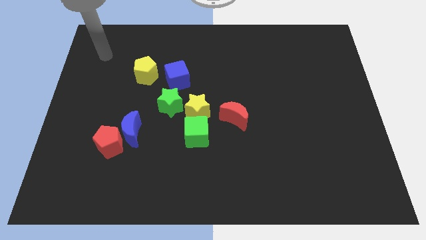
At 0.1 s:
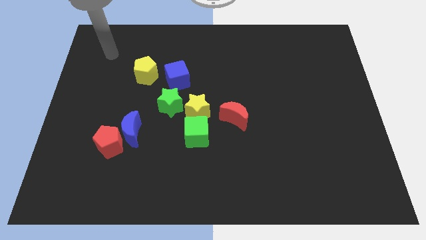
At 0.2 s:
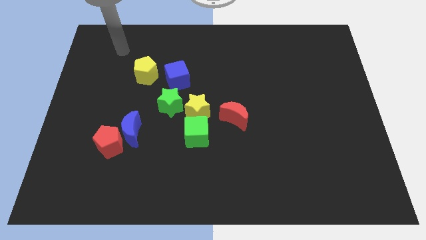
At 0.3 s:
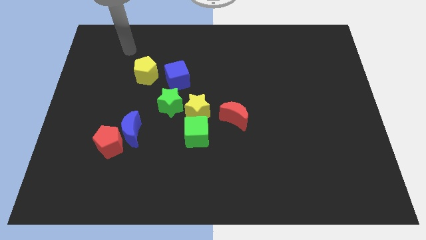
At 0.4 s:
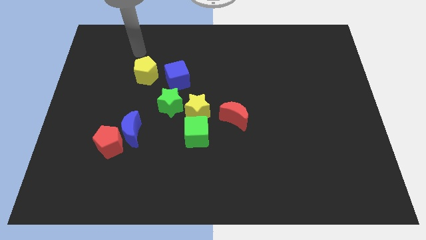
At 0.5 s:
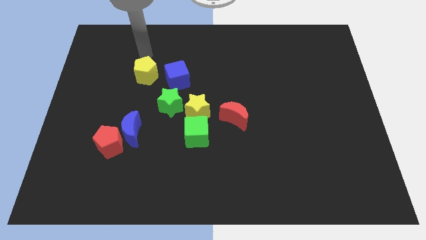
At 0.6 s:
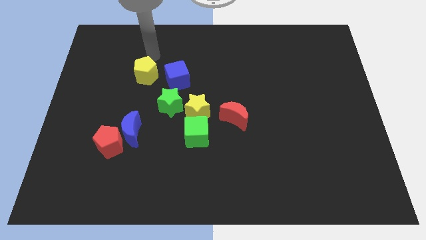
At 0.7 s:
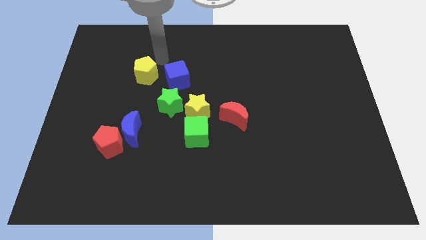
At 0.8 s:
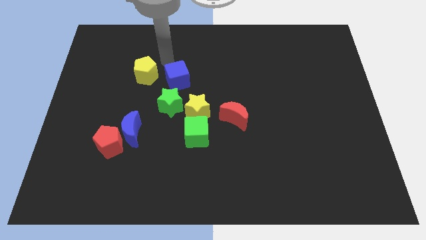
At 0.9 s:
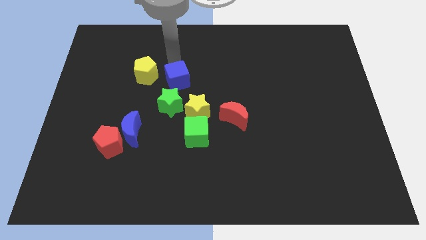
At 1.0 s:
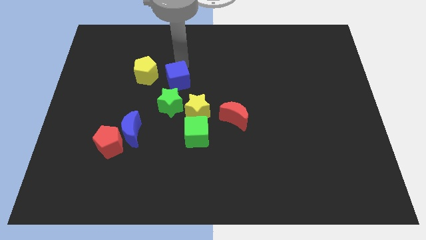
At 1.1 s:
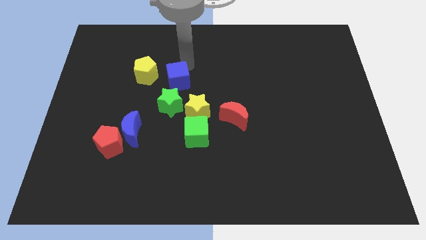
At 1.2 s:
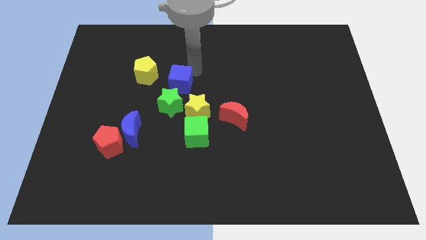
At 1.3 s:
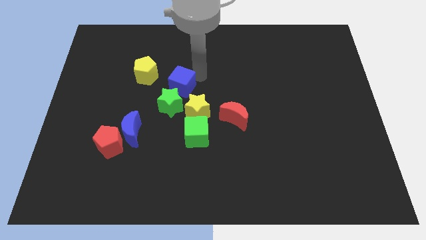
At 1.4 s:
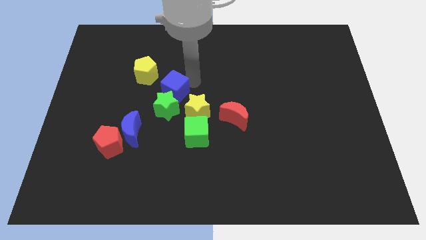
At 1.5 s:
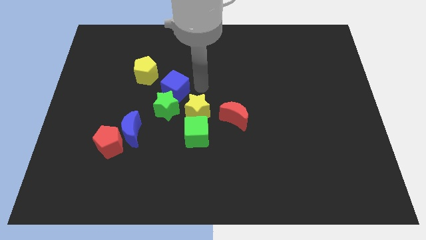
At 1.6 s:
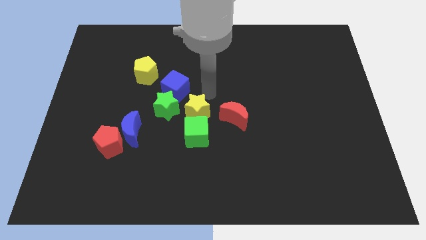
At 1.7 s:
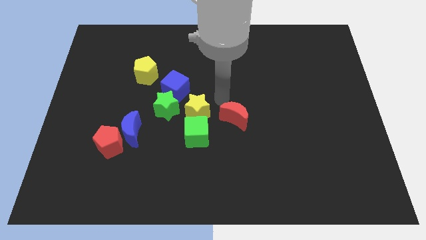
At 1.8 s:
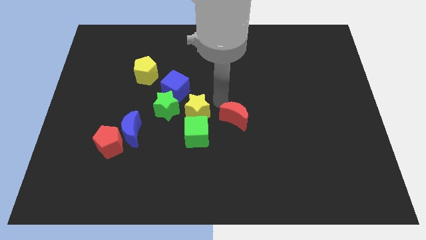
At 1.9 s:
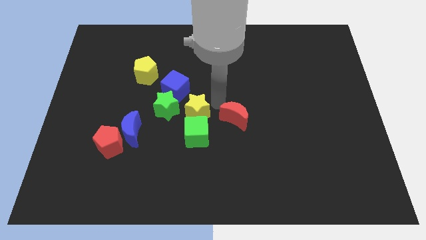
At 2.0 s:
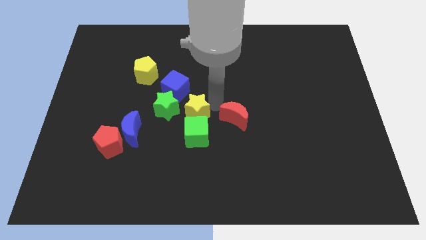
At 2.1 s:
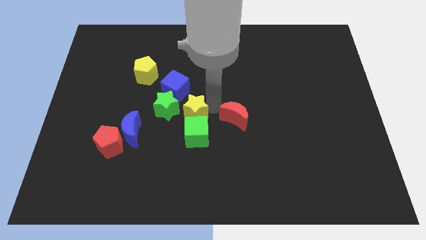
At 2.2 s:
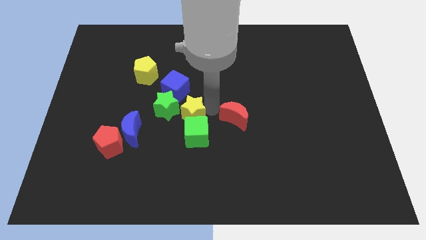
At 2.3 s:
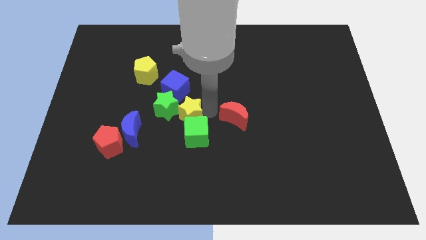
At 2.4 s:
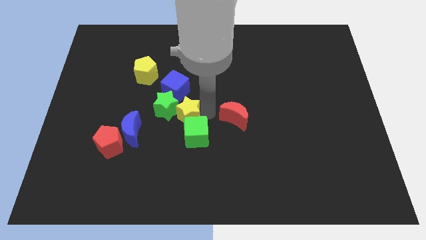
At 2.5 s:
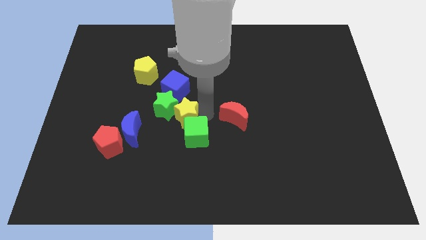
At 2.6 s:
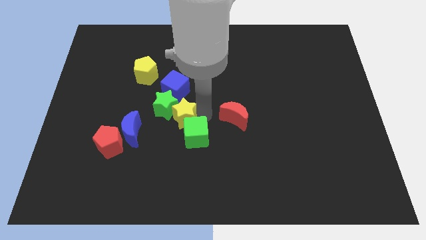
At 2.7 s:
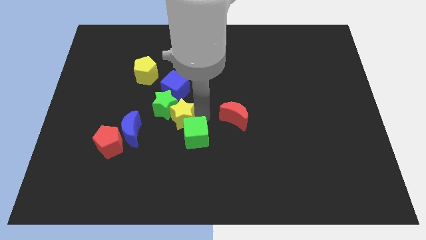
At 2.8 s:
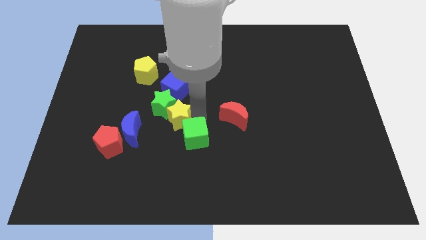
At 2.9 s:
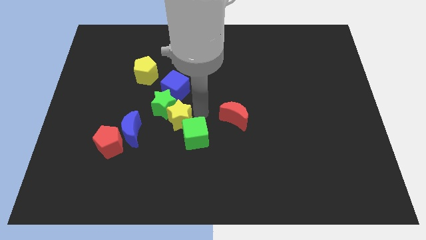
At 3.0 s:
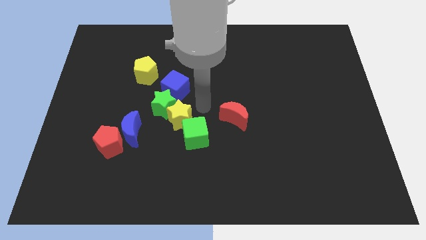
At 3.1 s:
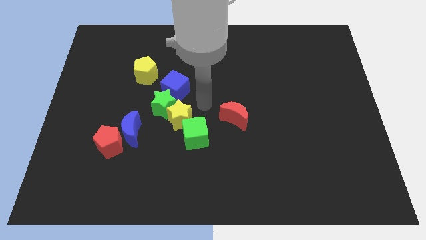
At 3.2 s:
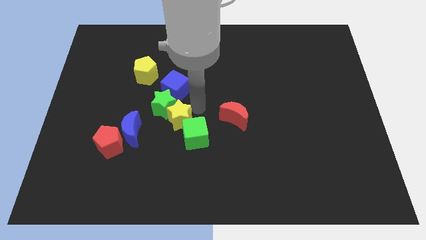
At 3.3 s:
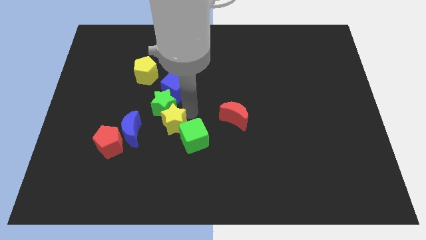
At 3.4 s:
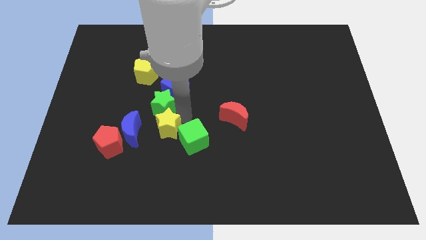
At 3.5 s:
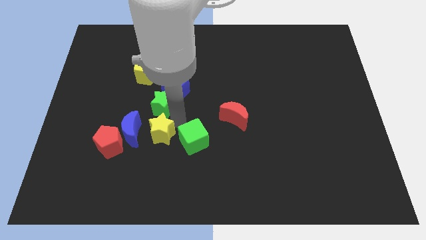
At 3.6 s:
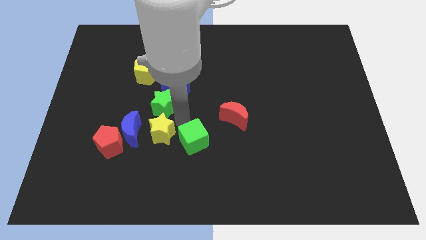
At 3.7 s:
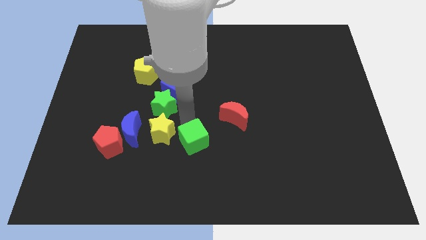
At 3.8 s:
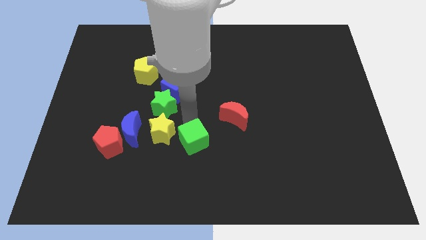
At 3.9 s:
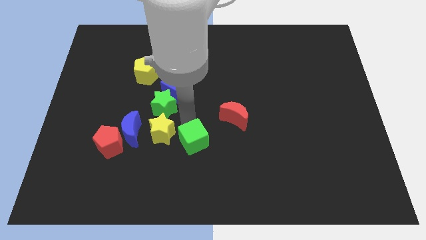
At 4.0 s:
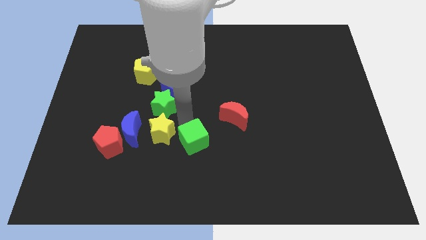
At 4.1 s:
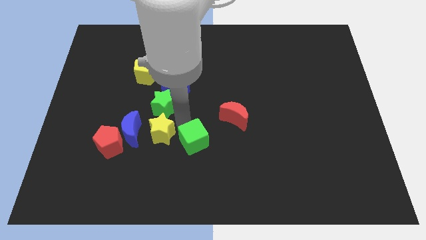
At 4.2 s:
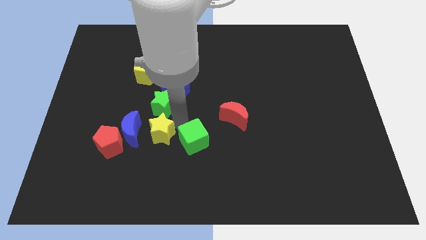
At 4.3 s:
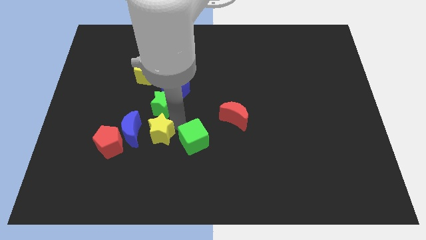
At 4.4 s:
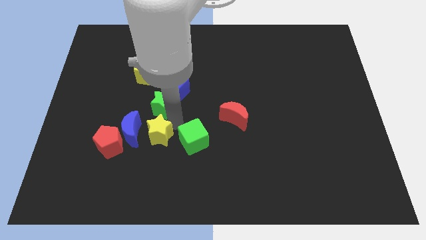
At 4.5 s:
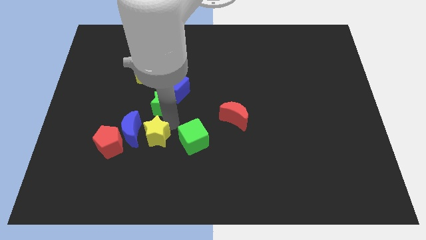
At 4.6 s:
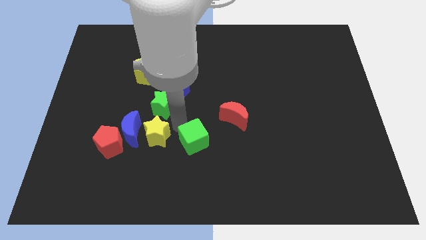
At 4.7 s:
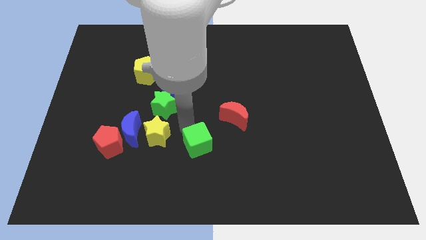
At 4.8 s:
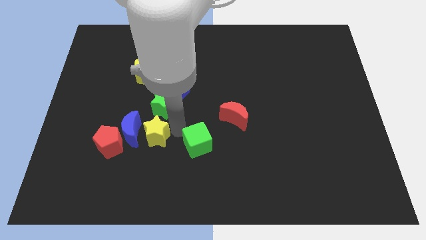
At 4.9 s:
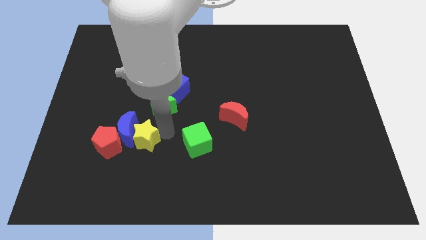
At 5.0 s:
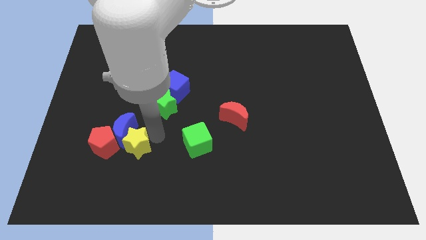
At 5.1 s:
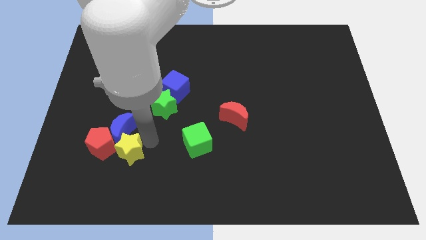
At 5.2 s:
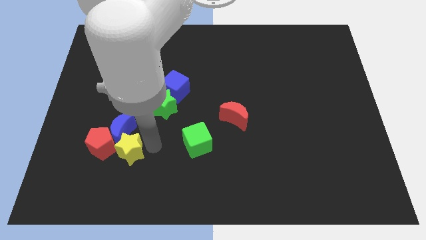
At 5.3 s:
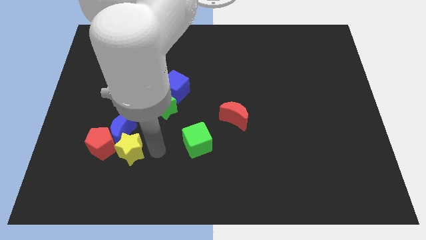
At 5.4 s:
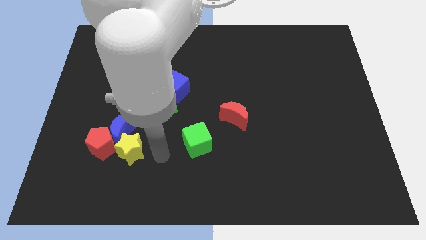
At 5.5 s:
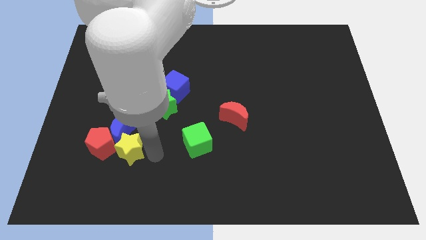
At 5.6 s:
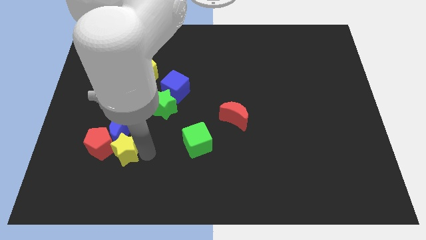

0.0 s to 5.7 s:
push the yellow star to the red pentagon

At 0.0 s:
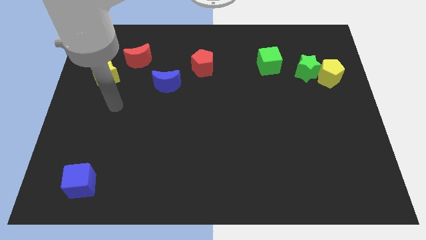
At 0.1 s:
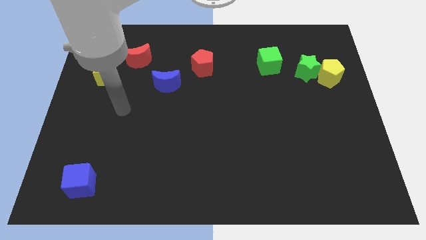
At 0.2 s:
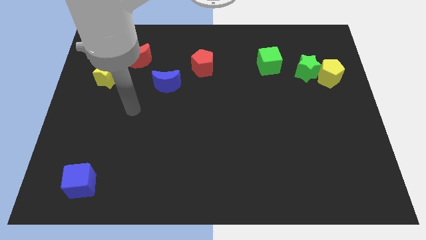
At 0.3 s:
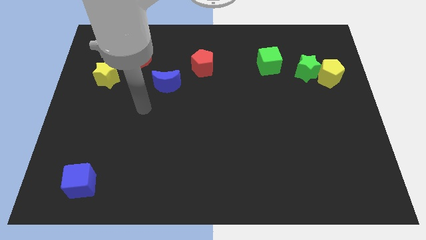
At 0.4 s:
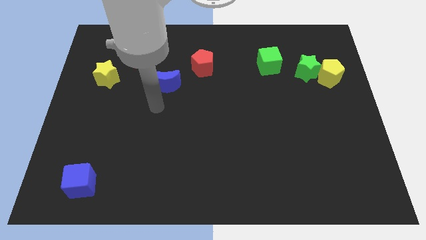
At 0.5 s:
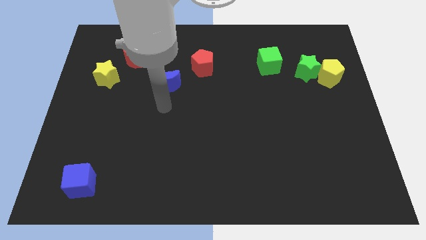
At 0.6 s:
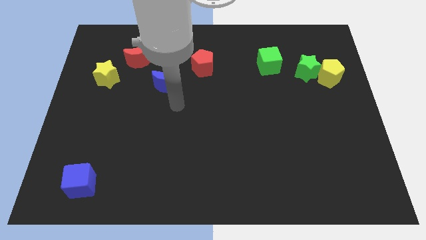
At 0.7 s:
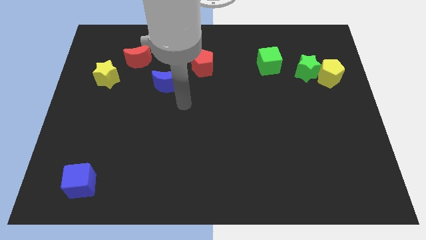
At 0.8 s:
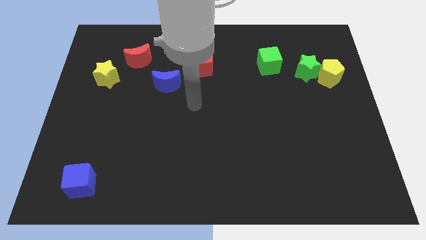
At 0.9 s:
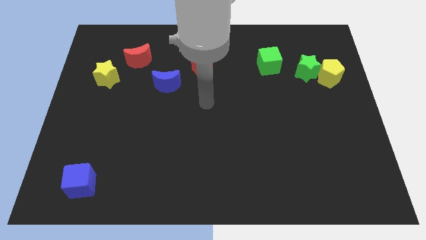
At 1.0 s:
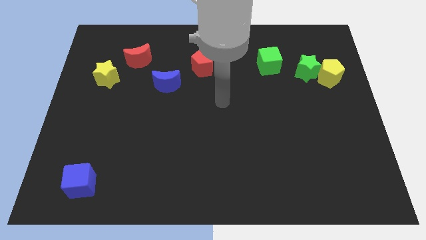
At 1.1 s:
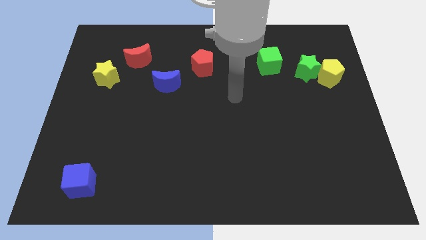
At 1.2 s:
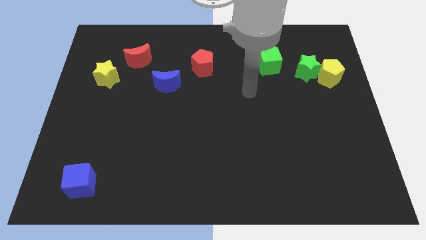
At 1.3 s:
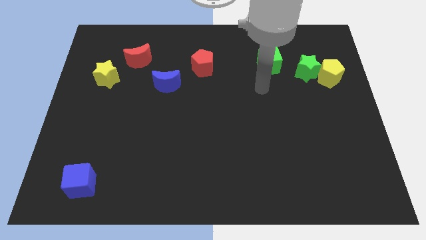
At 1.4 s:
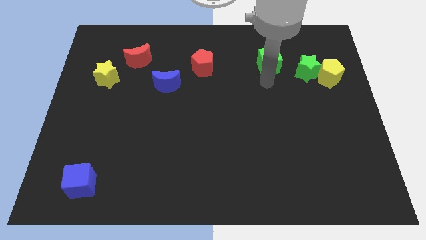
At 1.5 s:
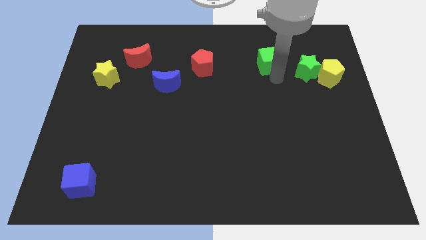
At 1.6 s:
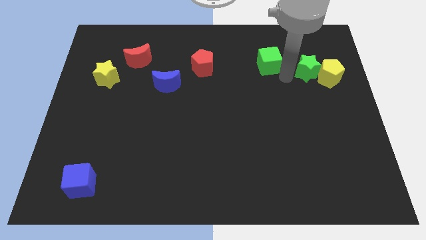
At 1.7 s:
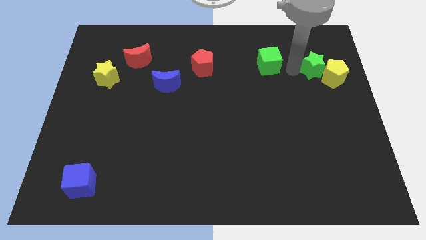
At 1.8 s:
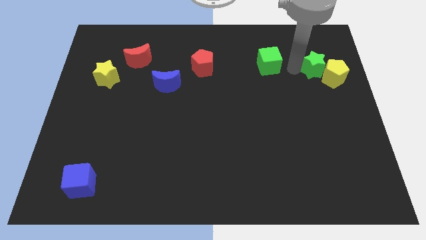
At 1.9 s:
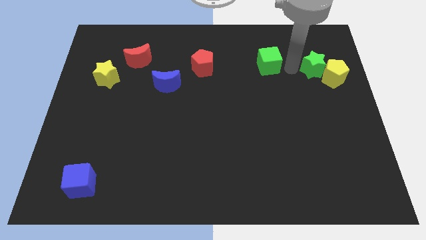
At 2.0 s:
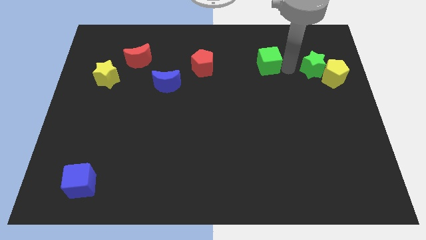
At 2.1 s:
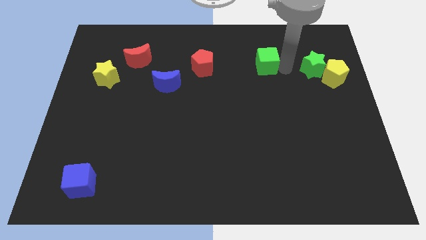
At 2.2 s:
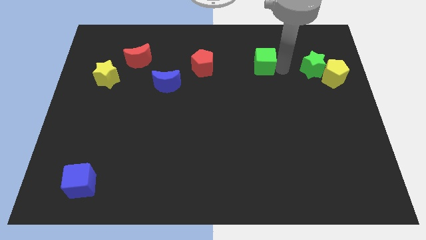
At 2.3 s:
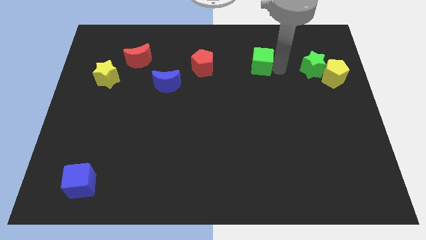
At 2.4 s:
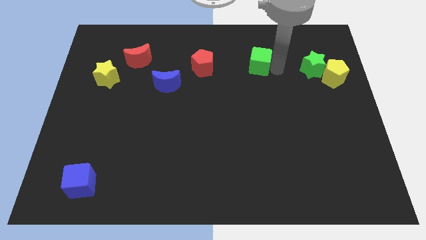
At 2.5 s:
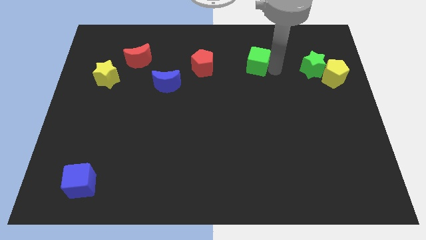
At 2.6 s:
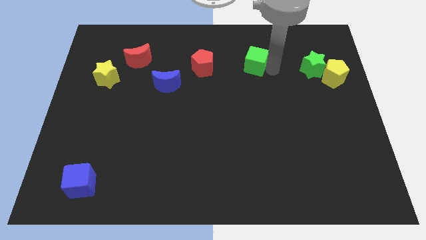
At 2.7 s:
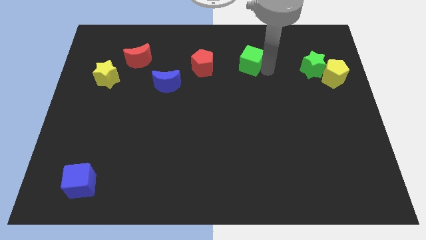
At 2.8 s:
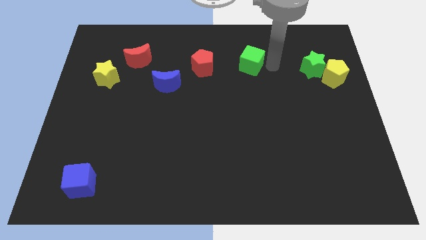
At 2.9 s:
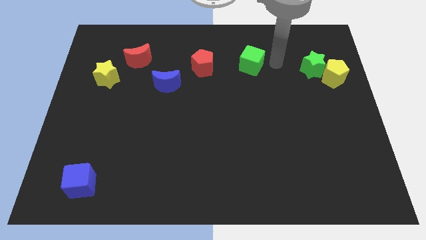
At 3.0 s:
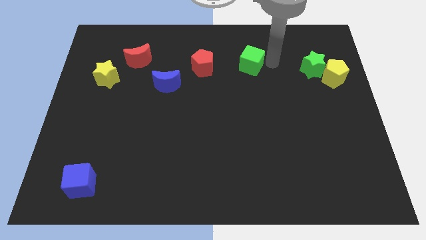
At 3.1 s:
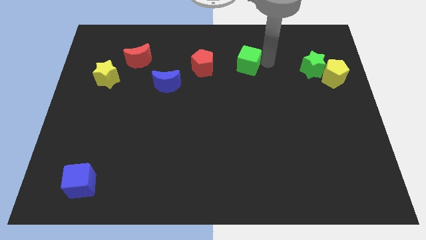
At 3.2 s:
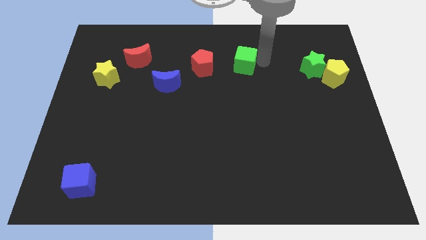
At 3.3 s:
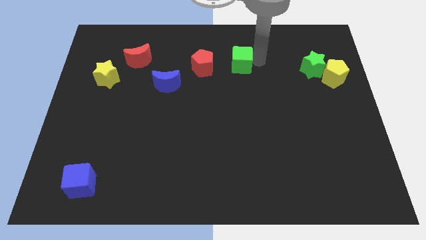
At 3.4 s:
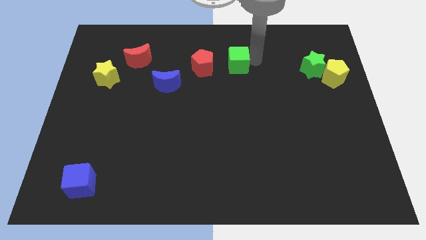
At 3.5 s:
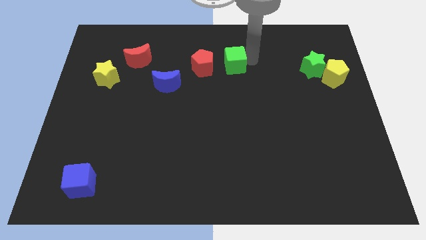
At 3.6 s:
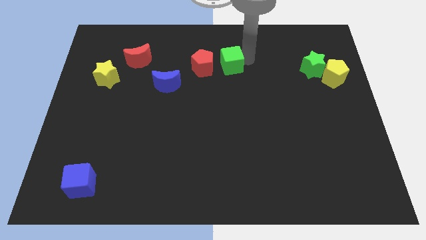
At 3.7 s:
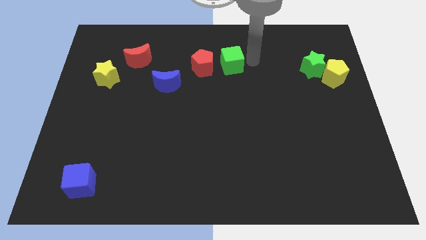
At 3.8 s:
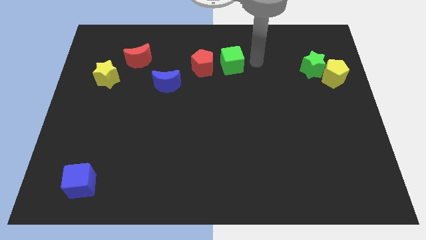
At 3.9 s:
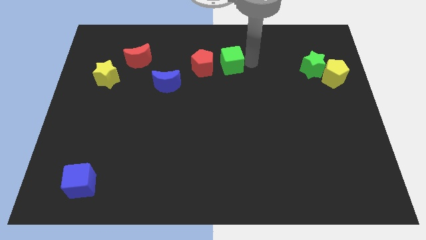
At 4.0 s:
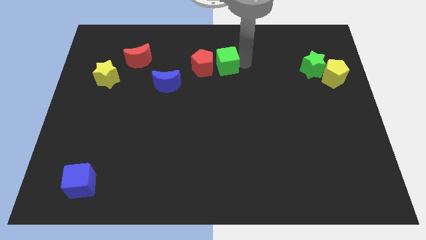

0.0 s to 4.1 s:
move the green cube next to the red pentagon
